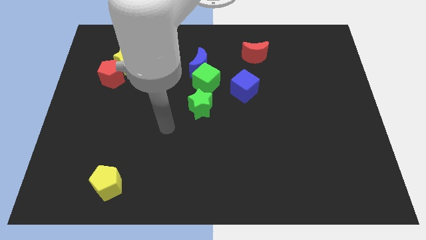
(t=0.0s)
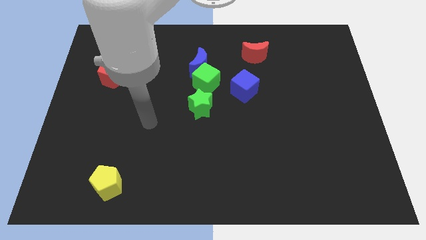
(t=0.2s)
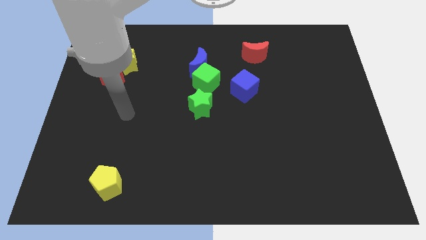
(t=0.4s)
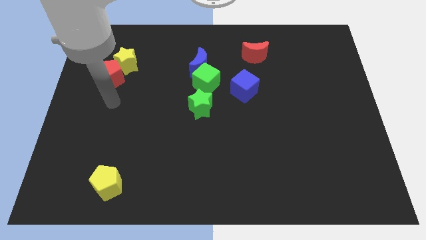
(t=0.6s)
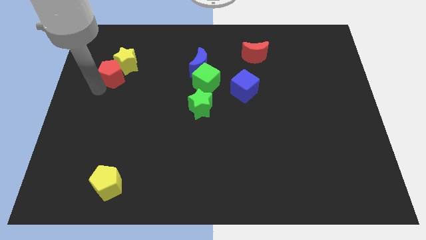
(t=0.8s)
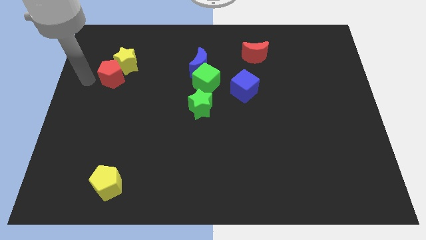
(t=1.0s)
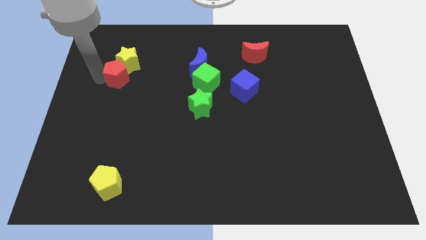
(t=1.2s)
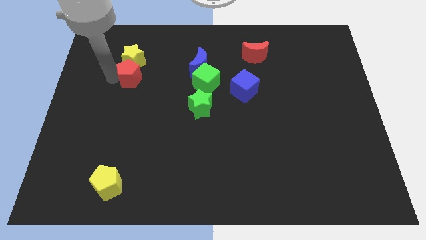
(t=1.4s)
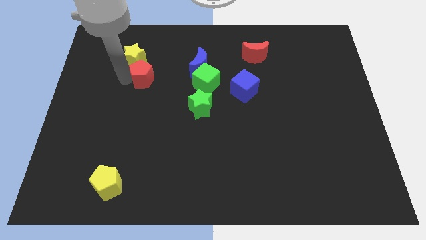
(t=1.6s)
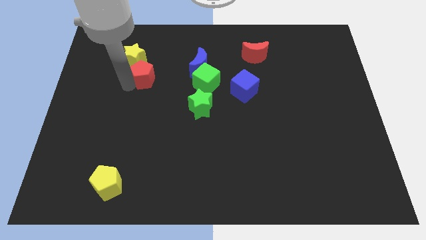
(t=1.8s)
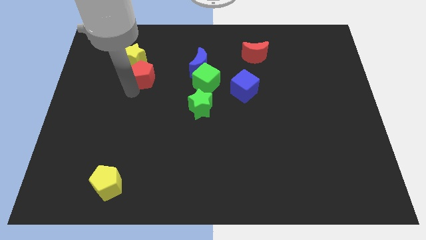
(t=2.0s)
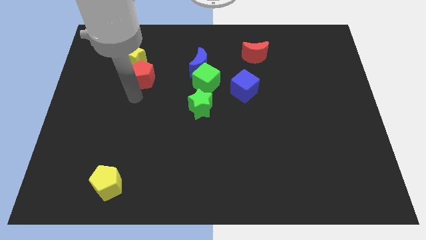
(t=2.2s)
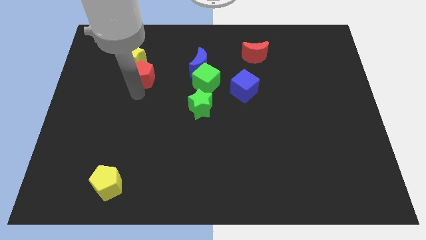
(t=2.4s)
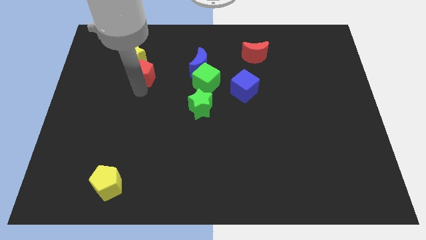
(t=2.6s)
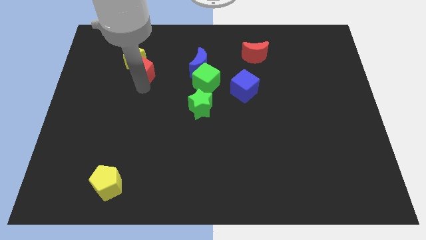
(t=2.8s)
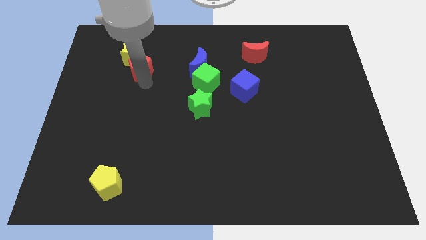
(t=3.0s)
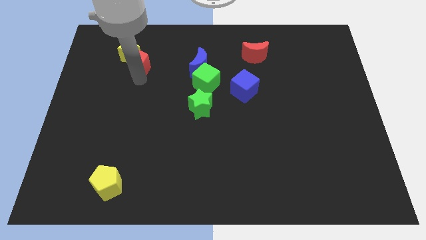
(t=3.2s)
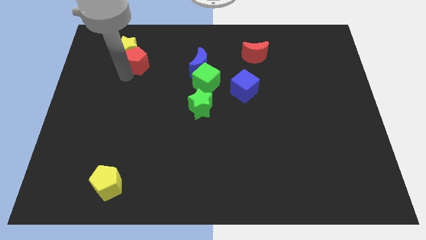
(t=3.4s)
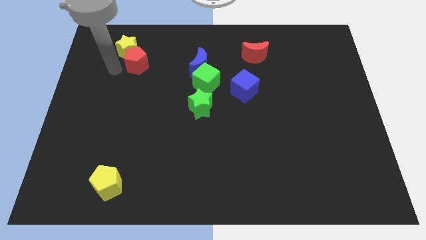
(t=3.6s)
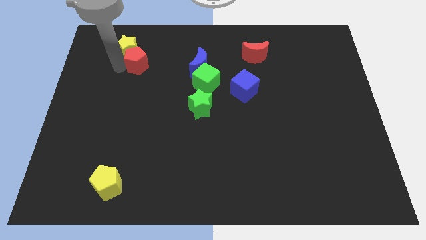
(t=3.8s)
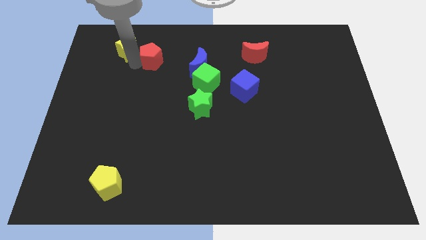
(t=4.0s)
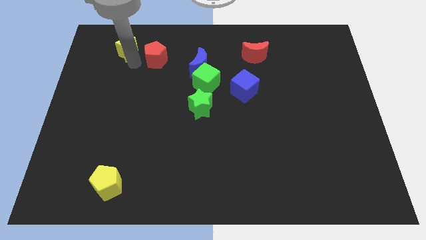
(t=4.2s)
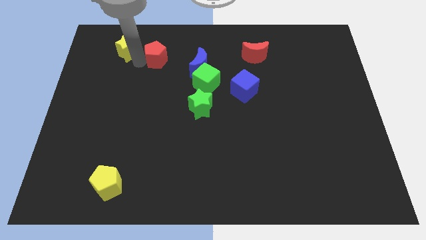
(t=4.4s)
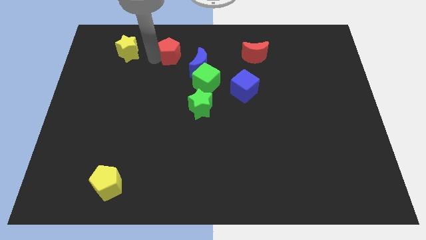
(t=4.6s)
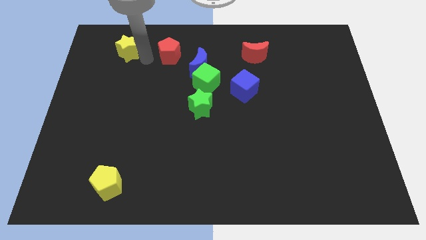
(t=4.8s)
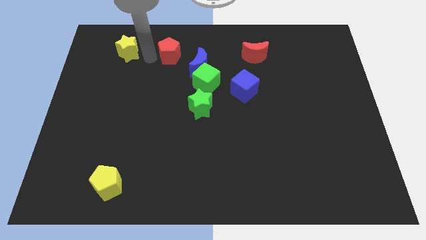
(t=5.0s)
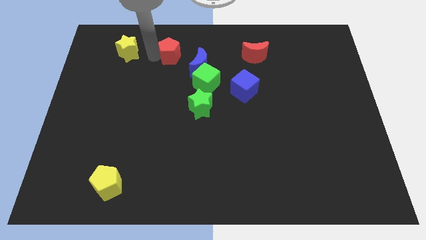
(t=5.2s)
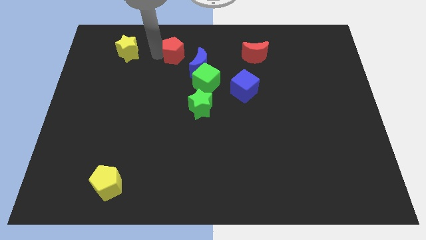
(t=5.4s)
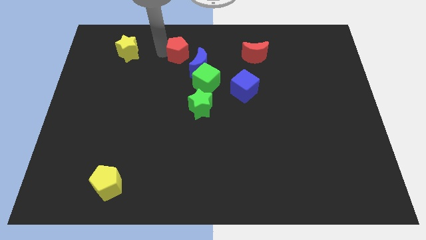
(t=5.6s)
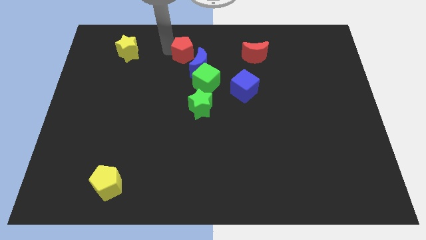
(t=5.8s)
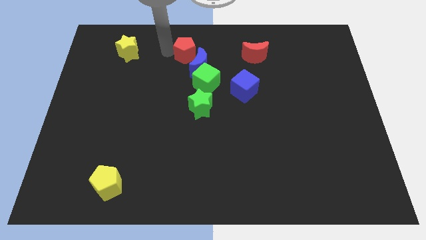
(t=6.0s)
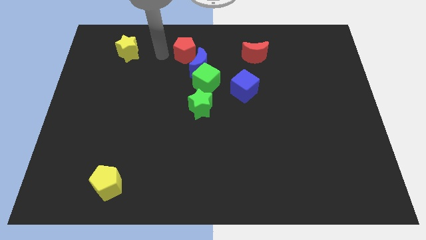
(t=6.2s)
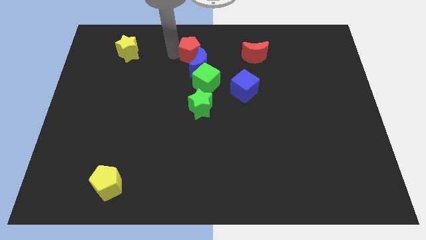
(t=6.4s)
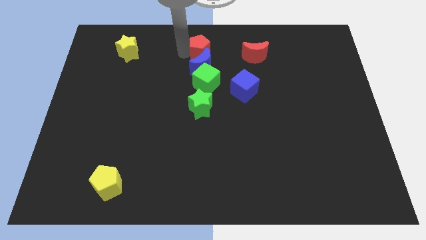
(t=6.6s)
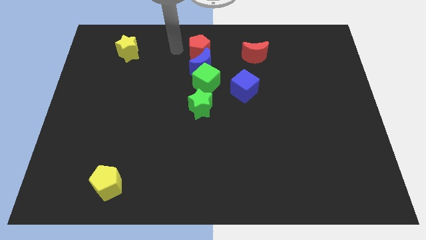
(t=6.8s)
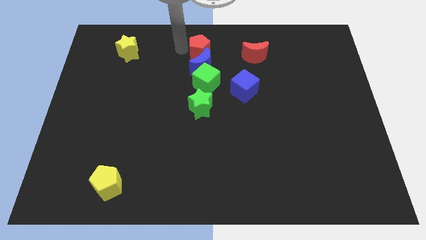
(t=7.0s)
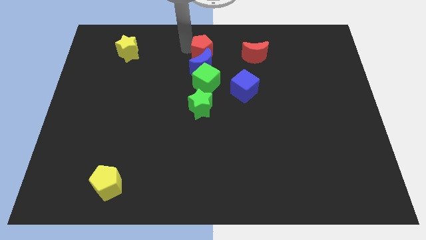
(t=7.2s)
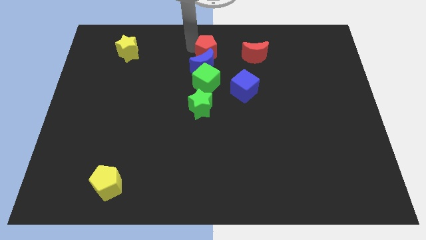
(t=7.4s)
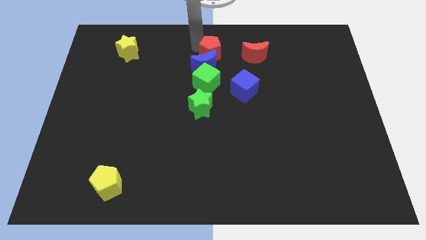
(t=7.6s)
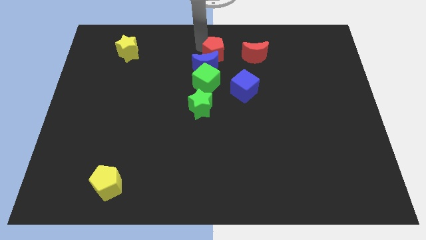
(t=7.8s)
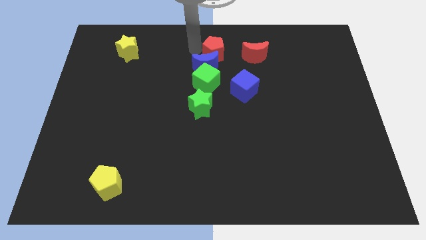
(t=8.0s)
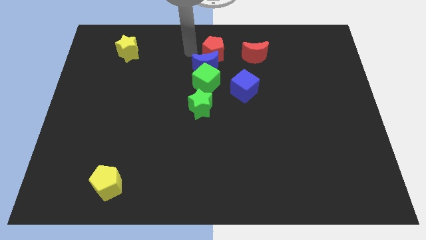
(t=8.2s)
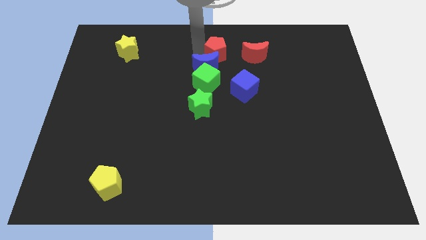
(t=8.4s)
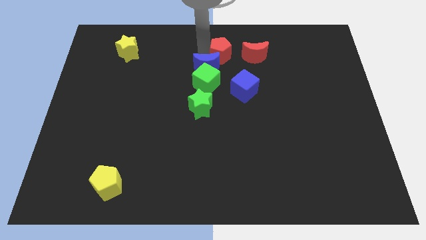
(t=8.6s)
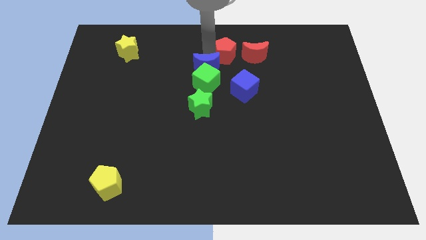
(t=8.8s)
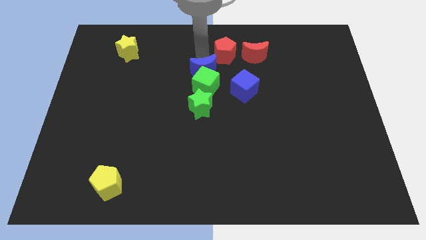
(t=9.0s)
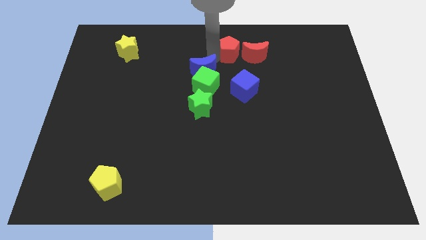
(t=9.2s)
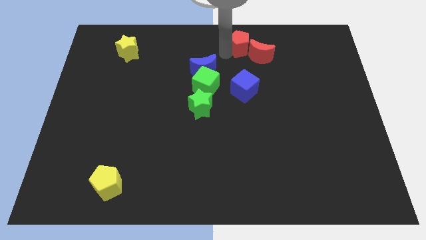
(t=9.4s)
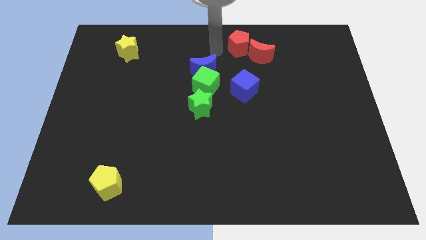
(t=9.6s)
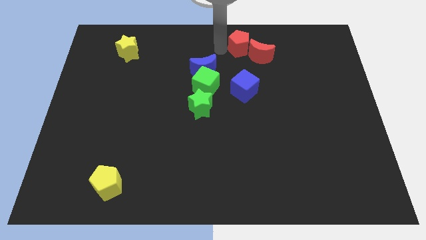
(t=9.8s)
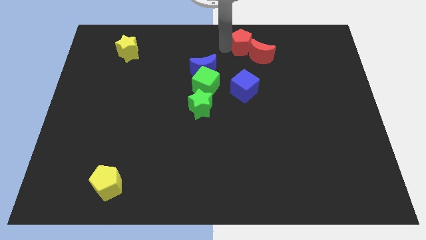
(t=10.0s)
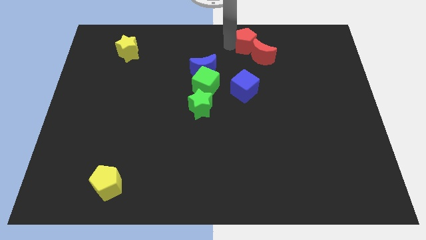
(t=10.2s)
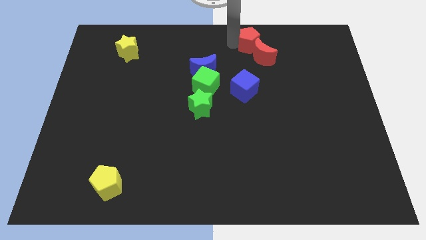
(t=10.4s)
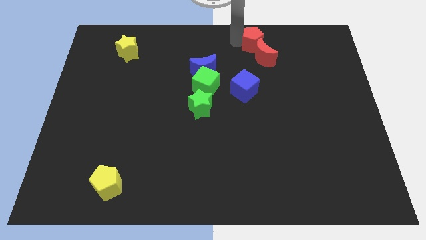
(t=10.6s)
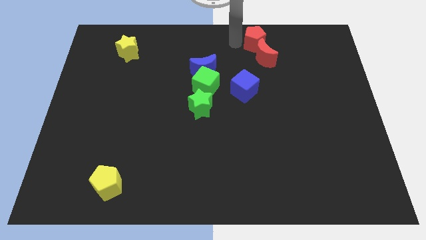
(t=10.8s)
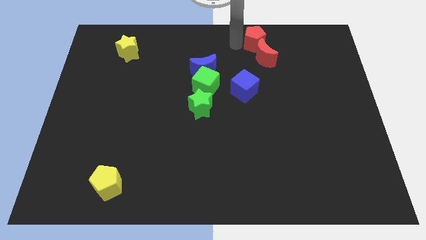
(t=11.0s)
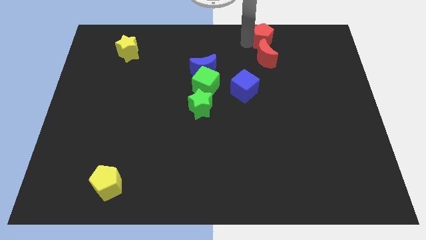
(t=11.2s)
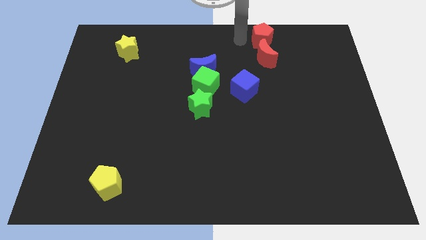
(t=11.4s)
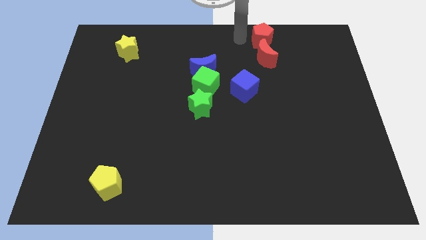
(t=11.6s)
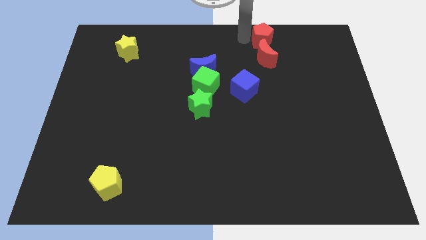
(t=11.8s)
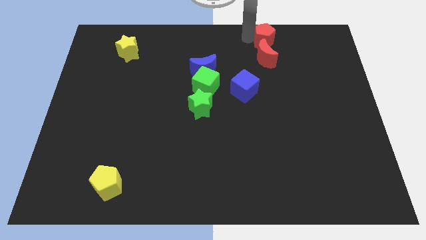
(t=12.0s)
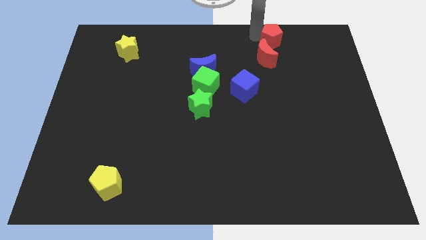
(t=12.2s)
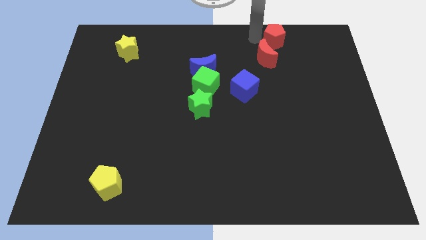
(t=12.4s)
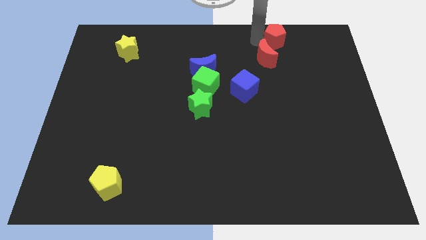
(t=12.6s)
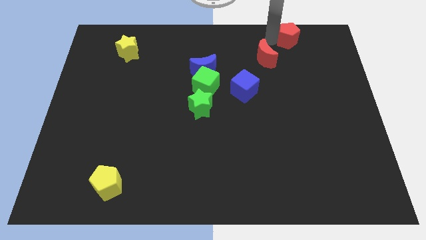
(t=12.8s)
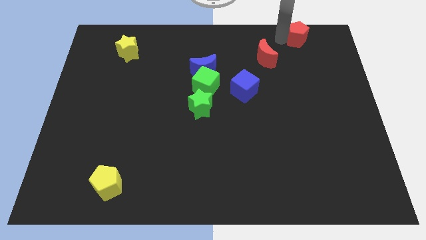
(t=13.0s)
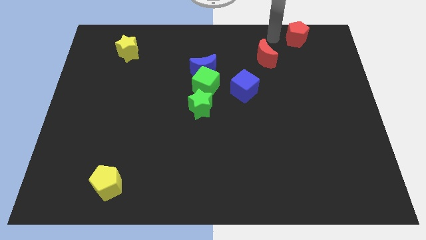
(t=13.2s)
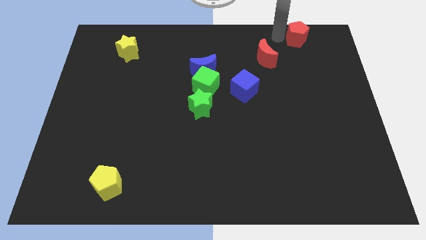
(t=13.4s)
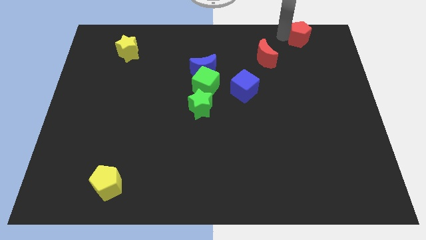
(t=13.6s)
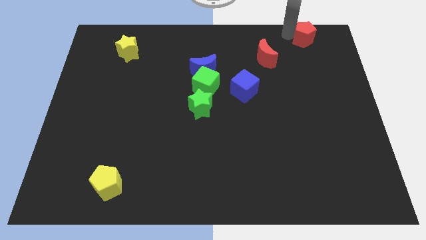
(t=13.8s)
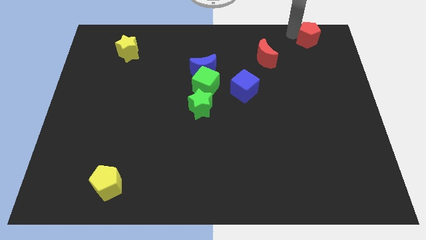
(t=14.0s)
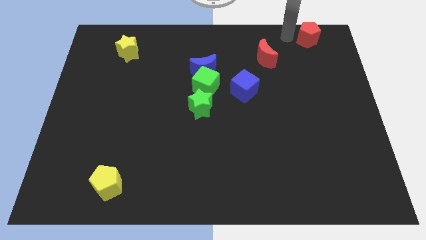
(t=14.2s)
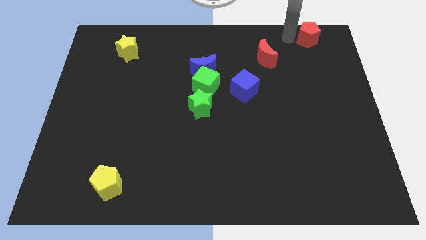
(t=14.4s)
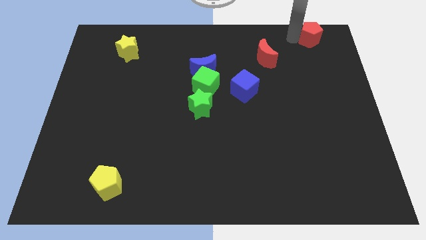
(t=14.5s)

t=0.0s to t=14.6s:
move the red pentagon to the top right
